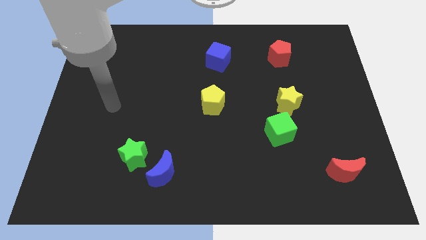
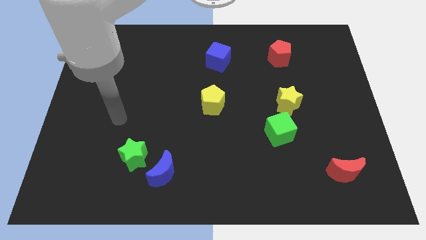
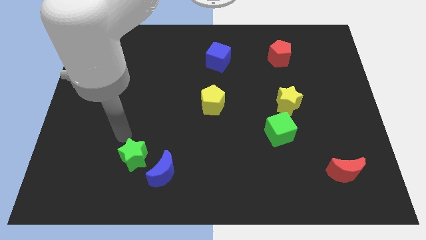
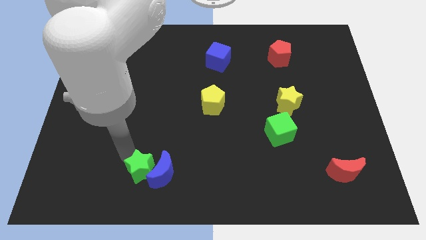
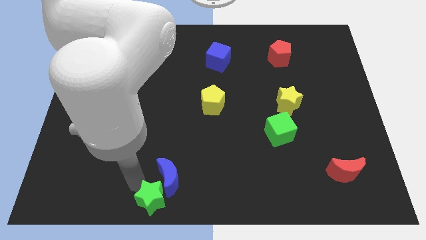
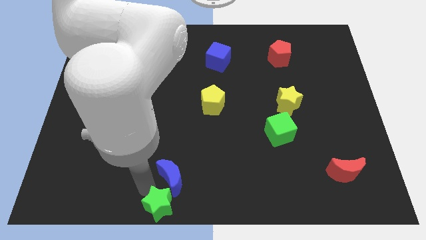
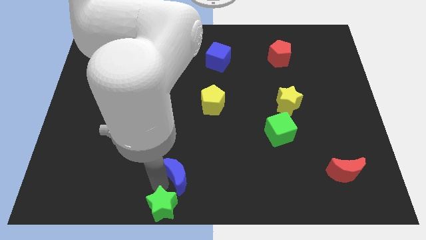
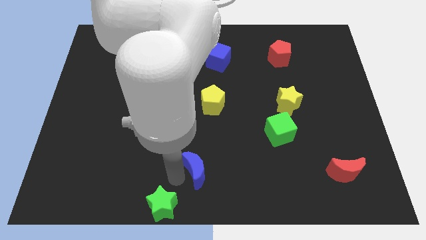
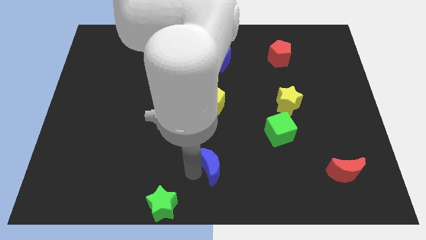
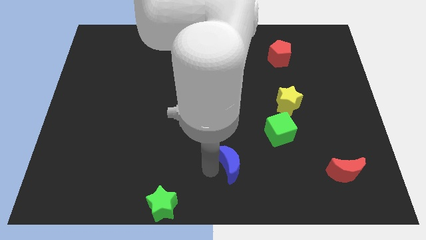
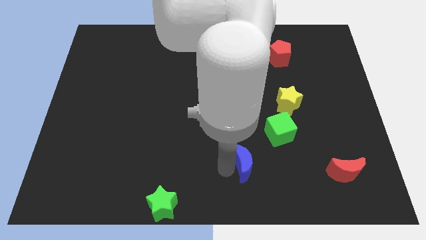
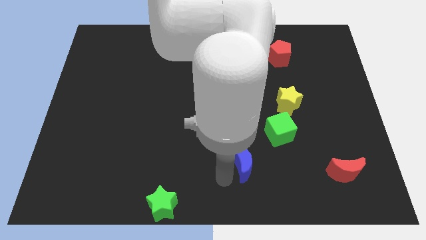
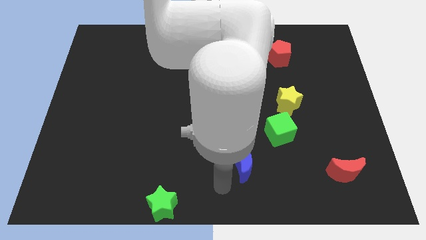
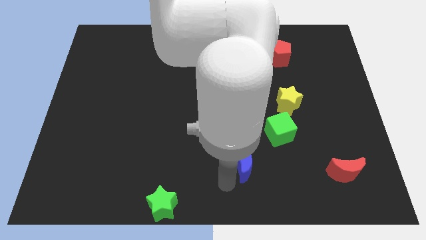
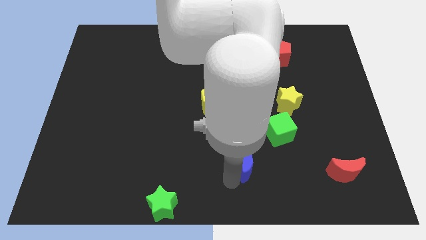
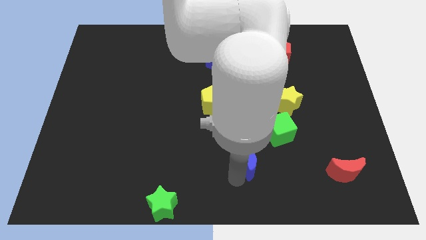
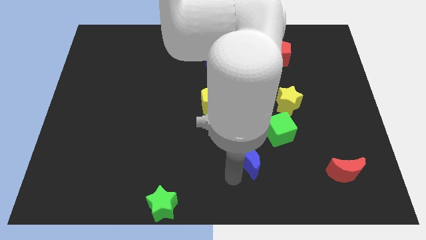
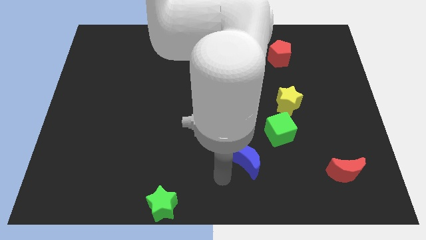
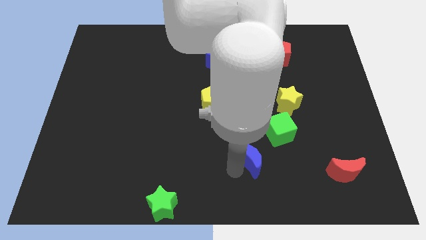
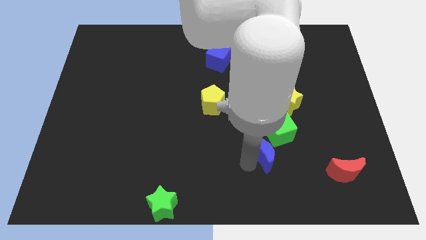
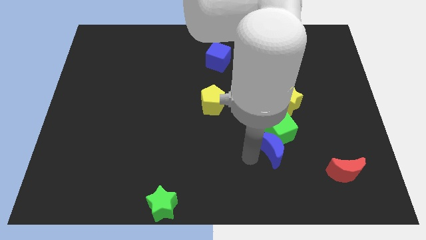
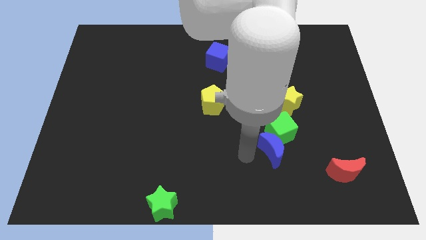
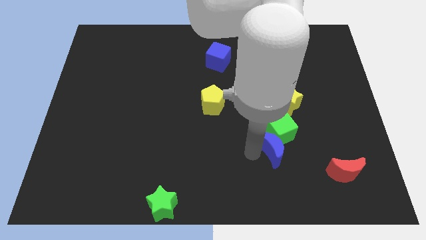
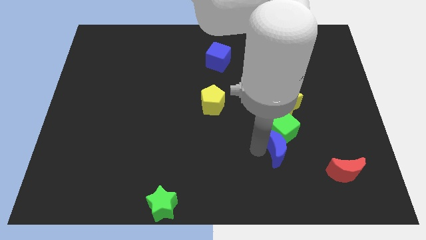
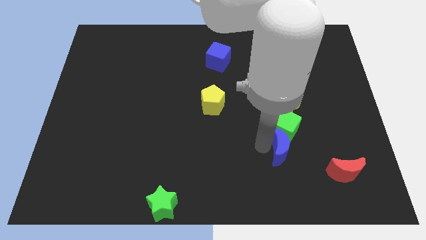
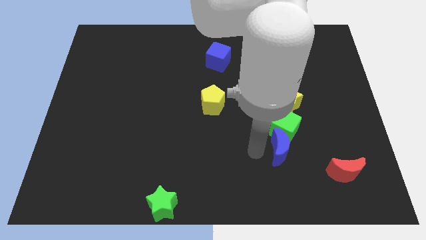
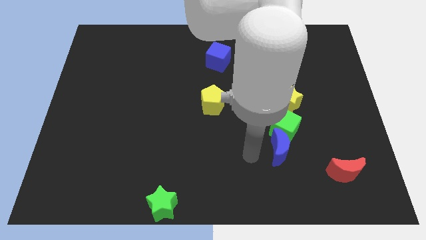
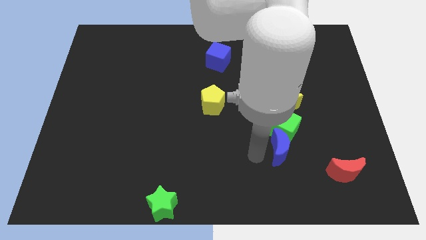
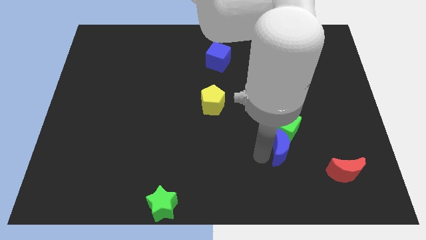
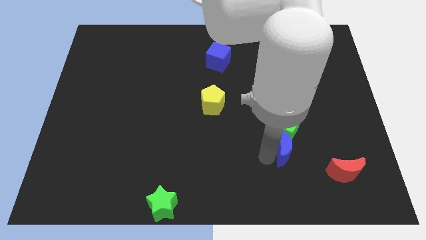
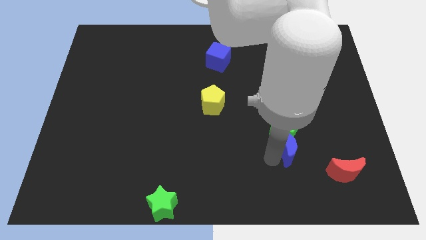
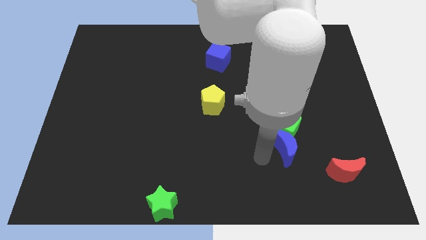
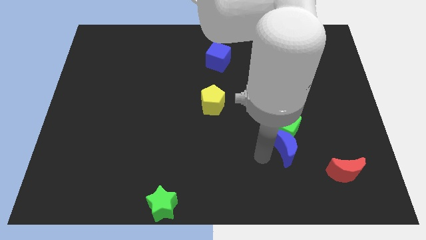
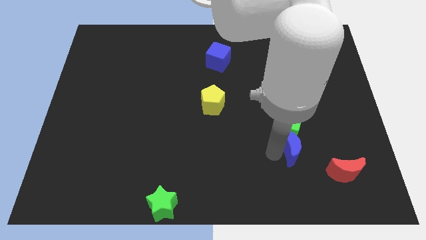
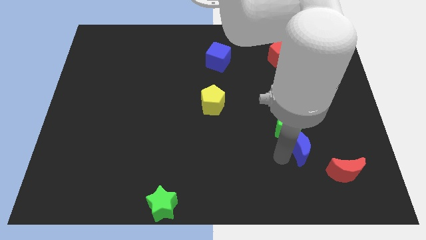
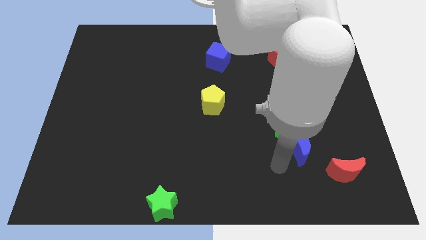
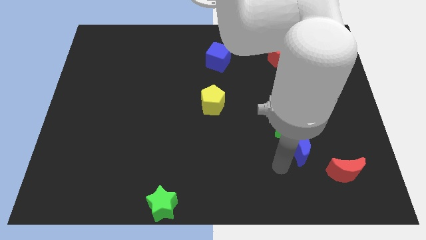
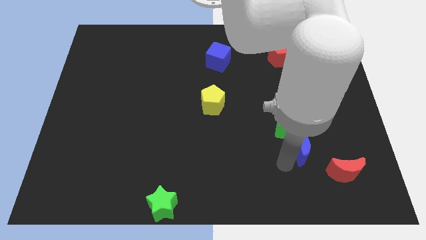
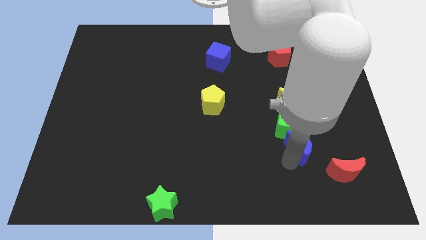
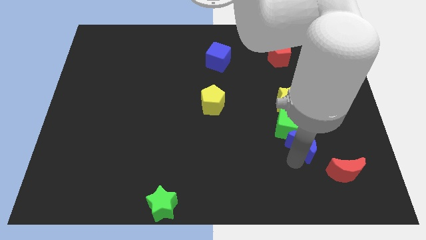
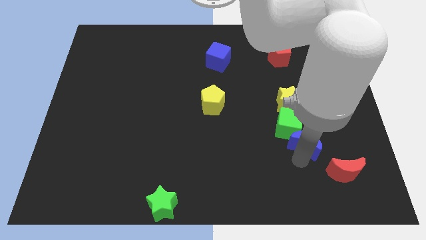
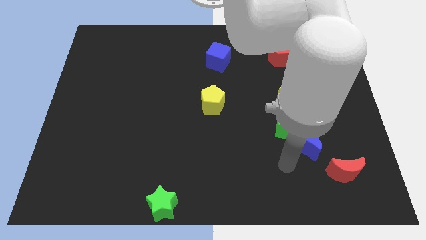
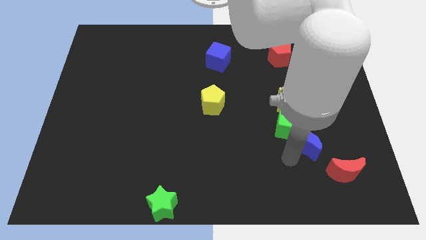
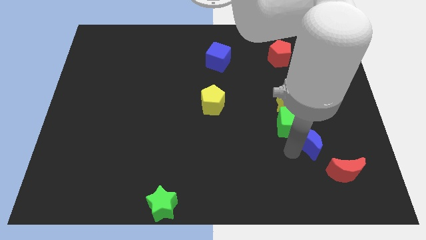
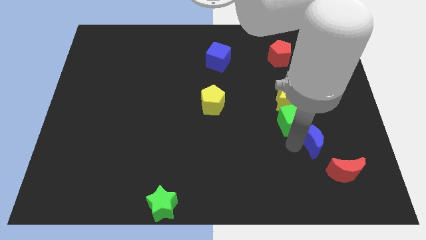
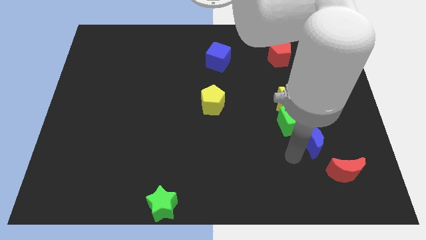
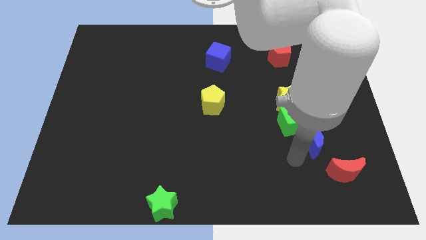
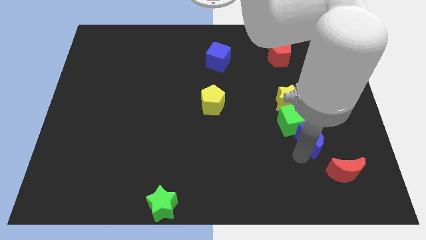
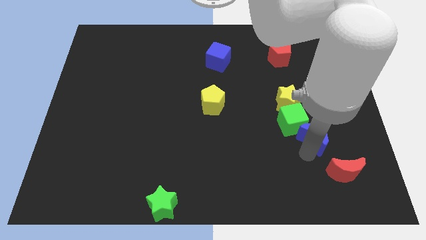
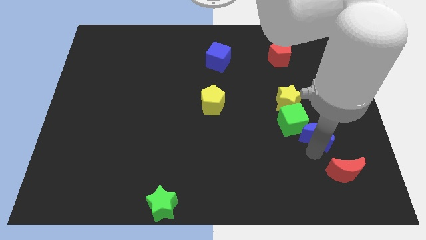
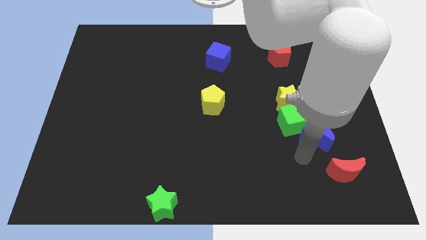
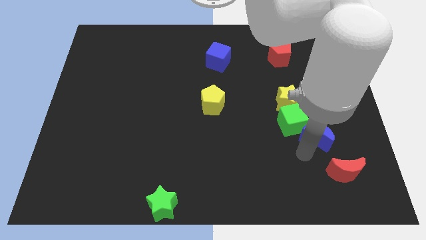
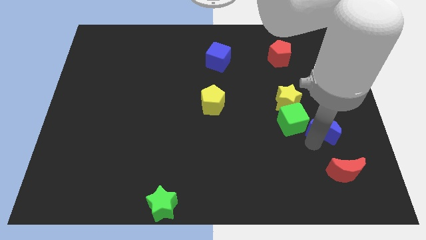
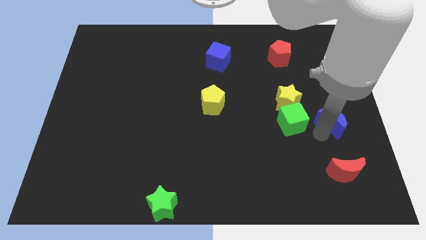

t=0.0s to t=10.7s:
slide the blue moon to the right side of the board

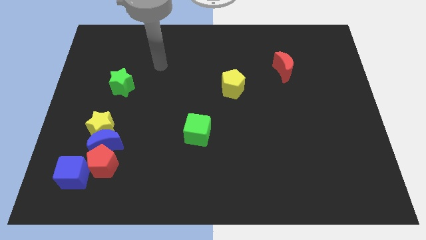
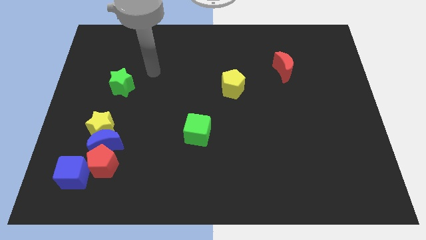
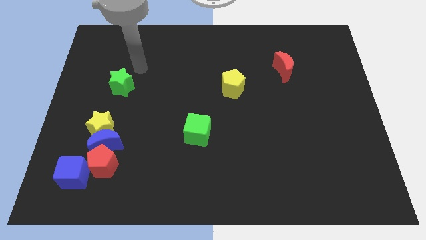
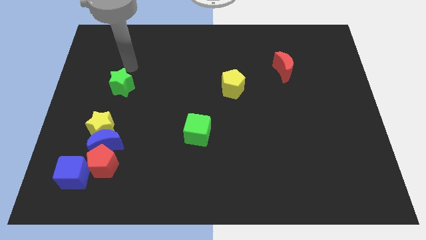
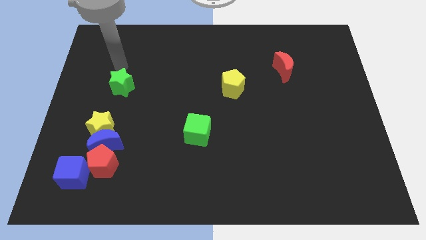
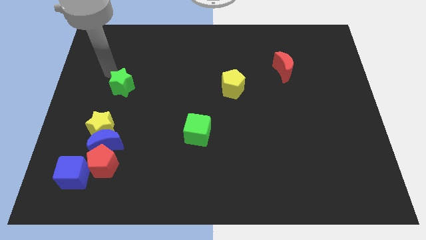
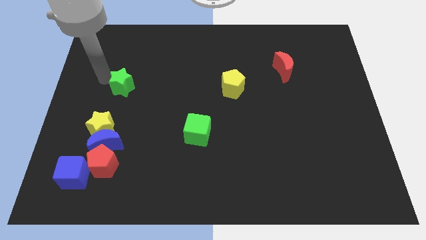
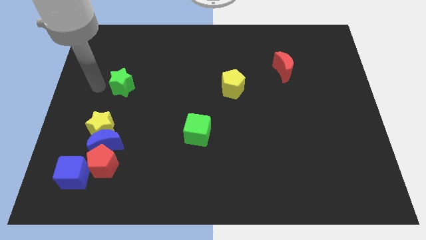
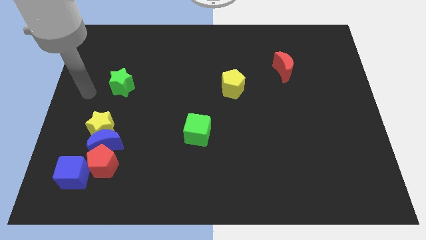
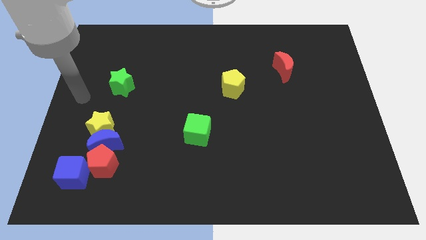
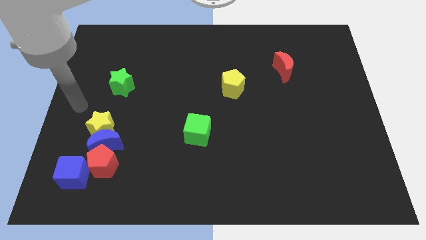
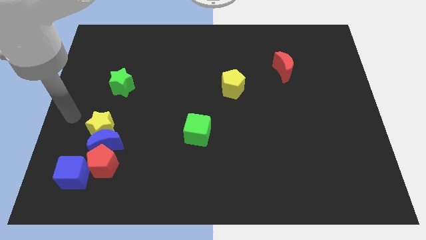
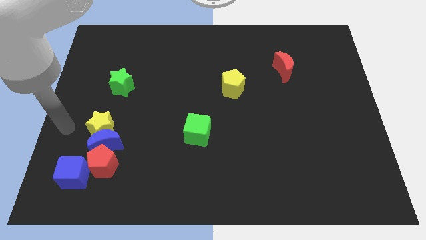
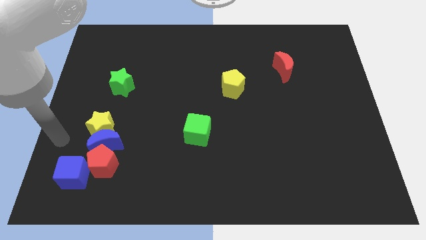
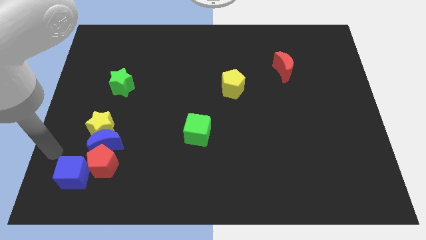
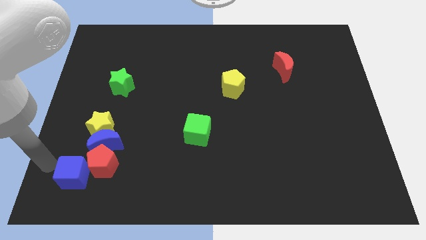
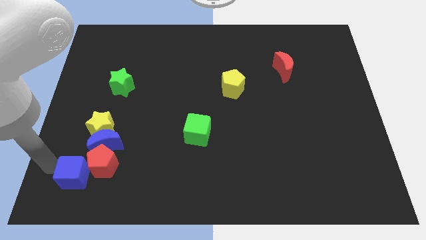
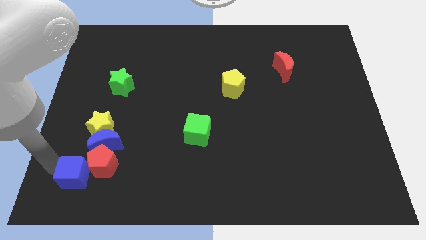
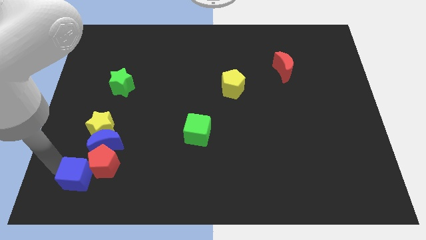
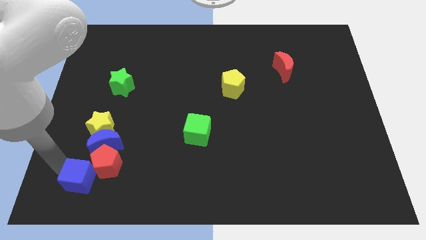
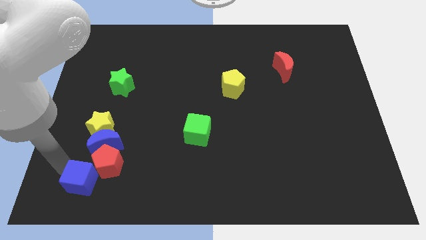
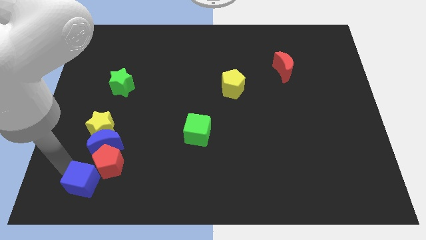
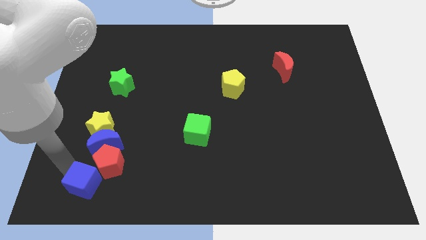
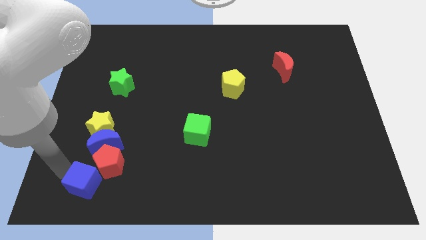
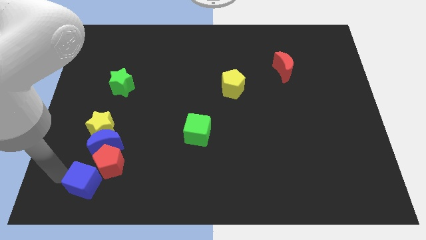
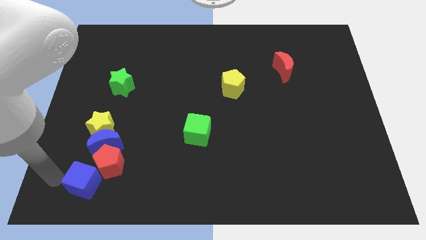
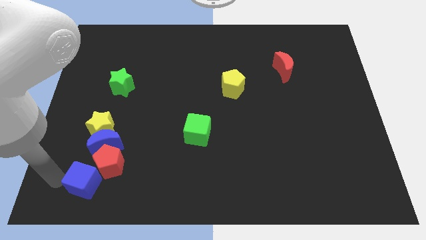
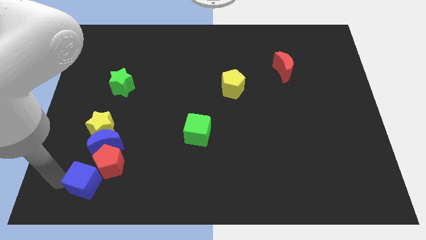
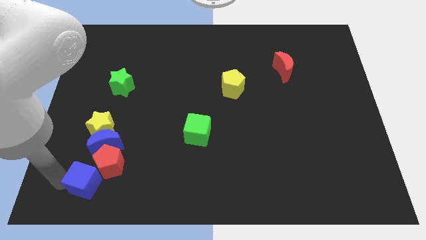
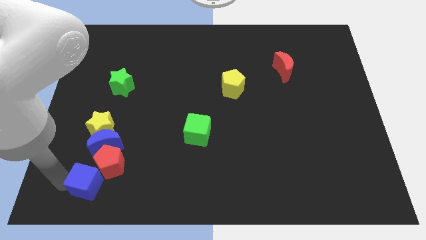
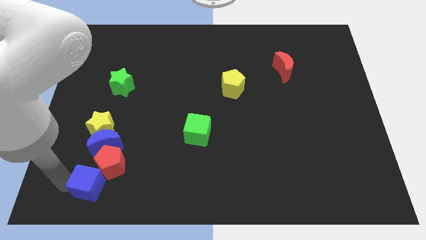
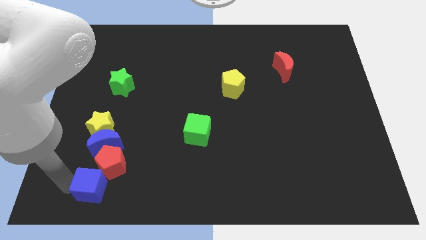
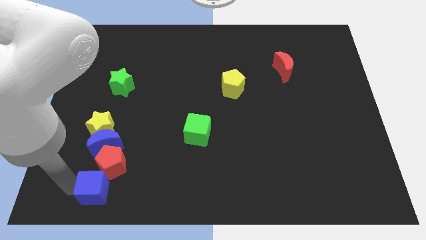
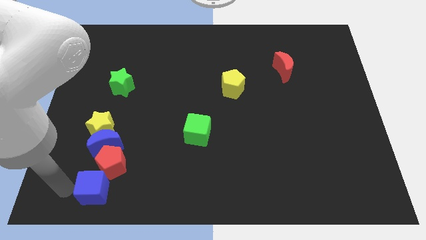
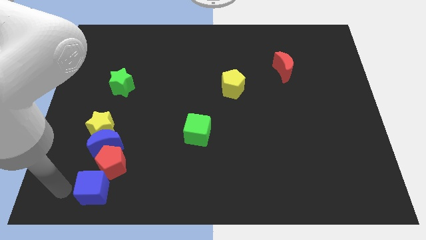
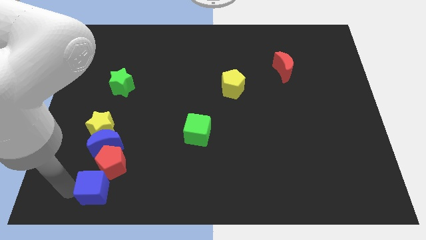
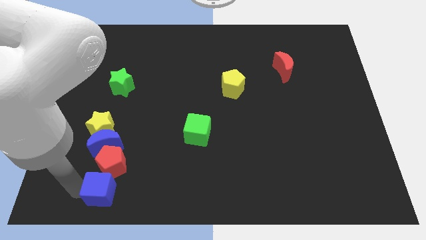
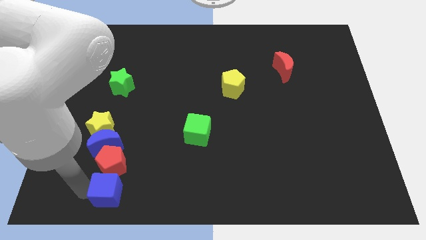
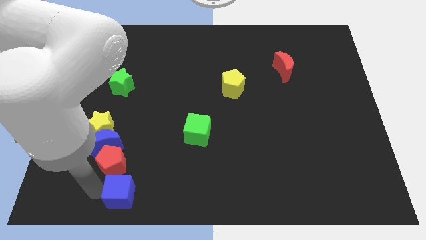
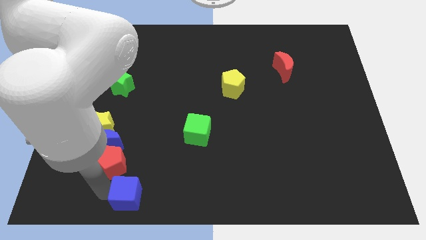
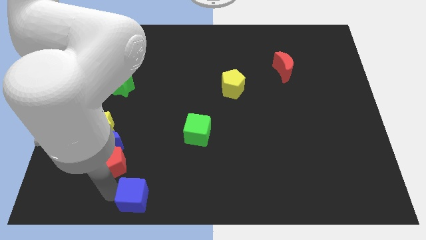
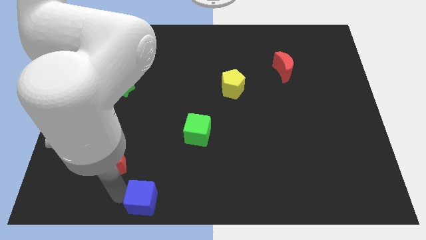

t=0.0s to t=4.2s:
slide the blue cube to the bottom side
